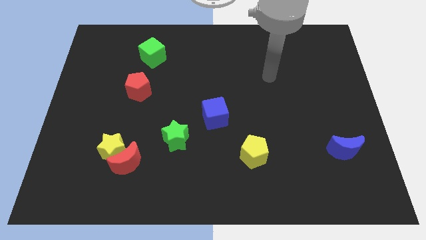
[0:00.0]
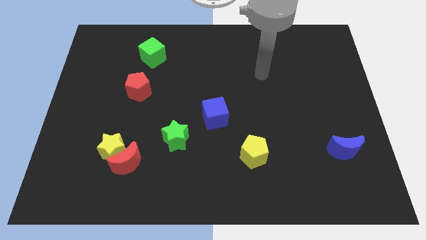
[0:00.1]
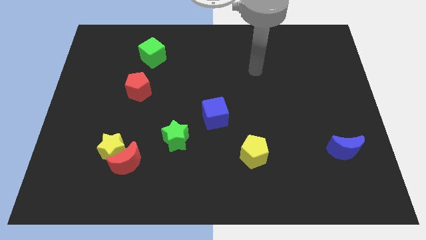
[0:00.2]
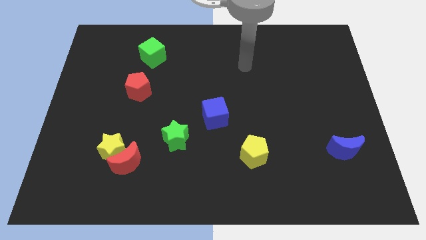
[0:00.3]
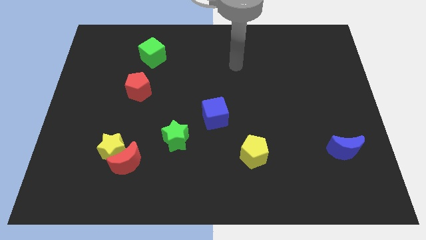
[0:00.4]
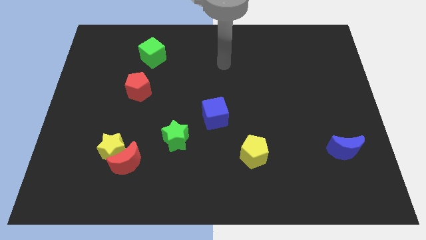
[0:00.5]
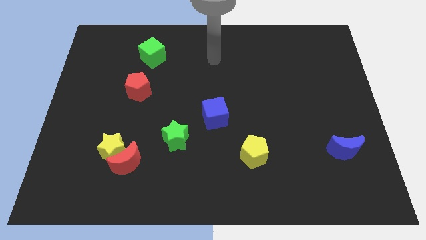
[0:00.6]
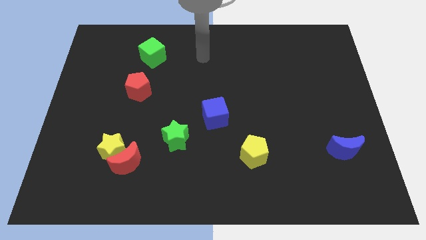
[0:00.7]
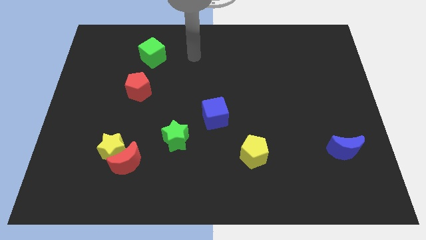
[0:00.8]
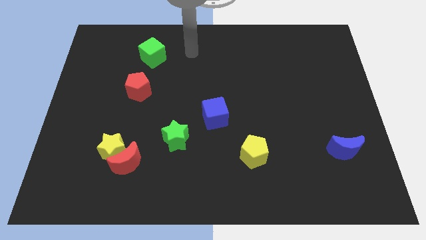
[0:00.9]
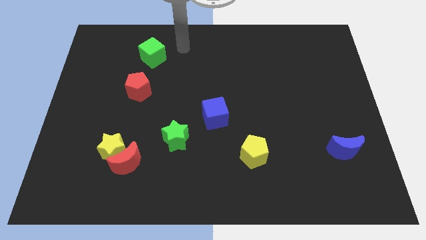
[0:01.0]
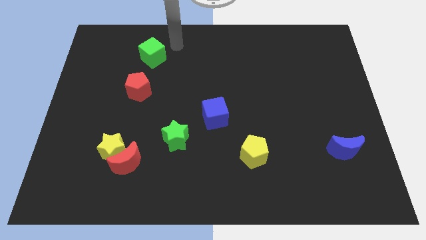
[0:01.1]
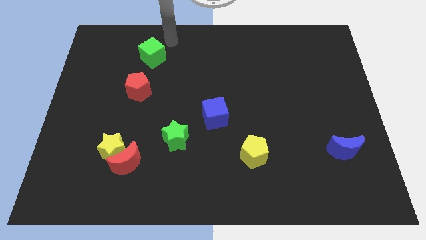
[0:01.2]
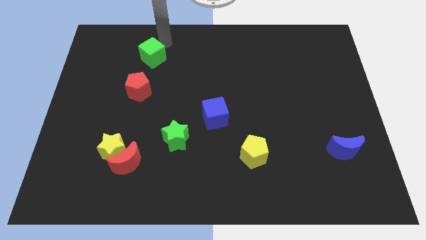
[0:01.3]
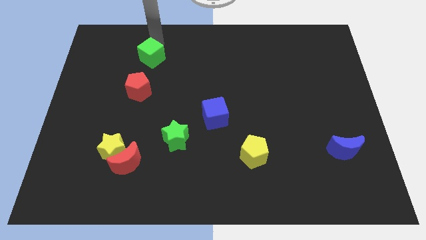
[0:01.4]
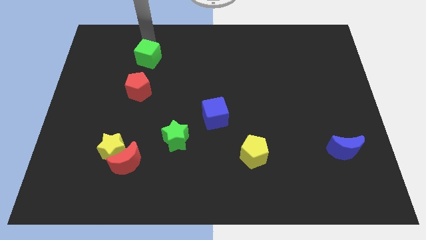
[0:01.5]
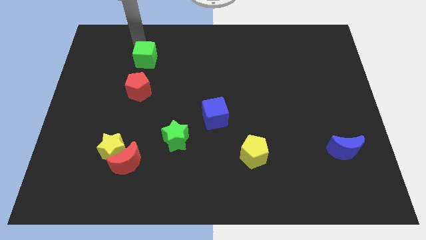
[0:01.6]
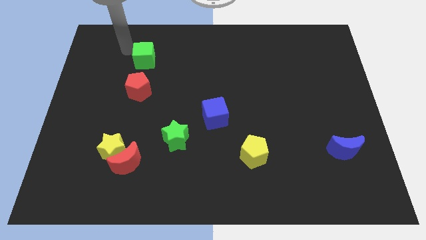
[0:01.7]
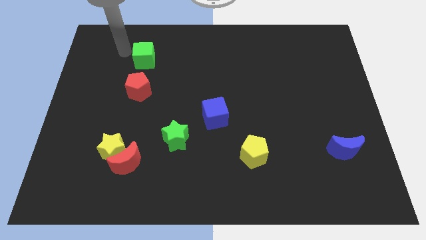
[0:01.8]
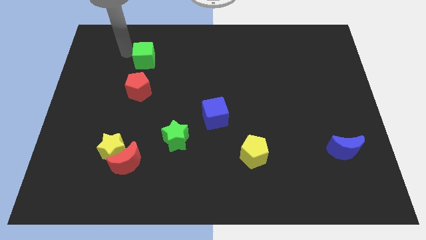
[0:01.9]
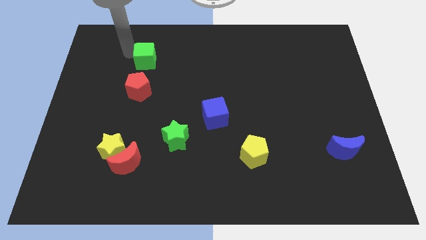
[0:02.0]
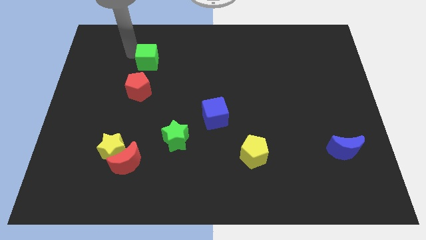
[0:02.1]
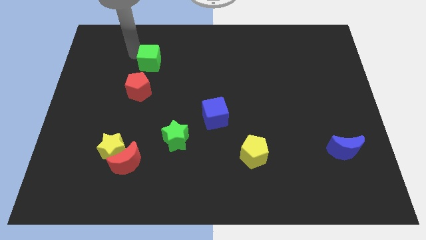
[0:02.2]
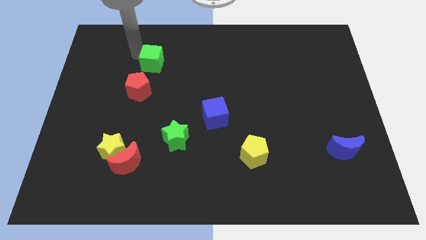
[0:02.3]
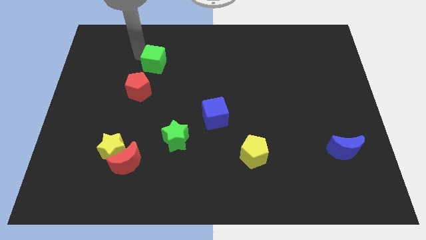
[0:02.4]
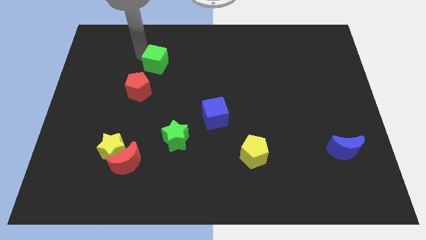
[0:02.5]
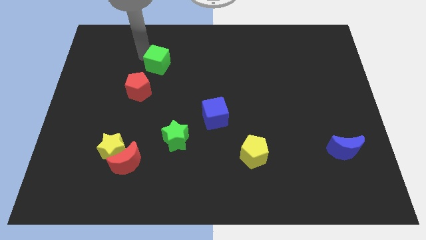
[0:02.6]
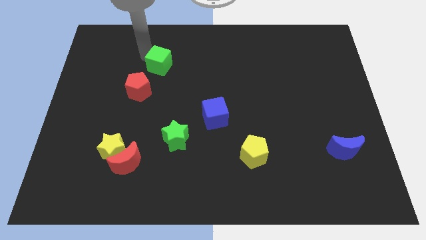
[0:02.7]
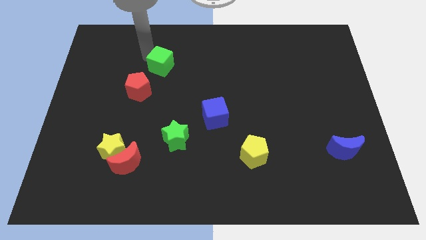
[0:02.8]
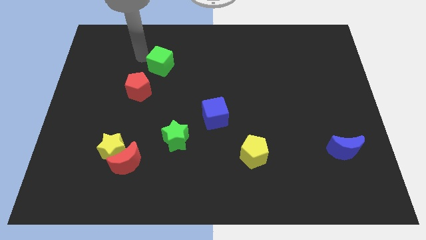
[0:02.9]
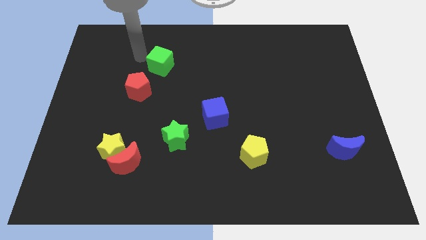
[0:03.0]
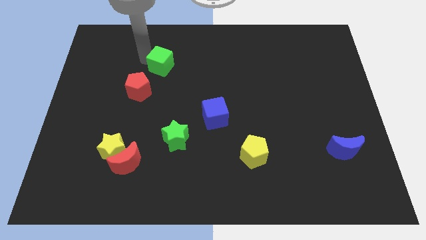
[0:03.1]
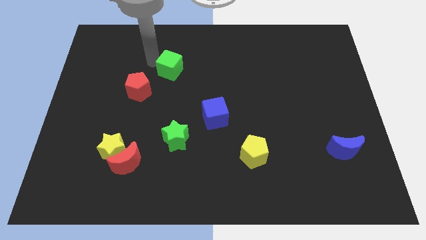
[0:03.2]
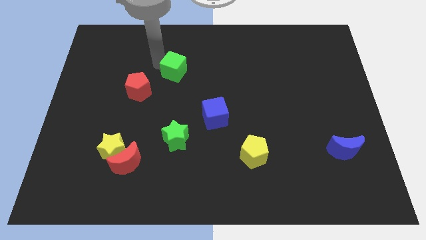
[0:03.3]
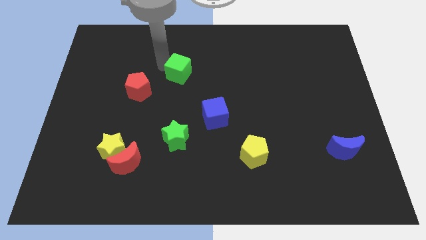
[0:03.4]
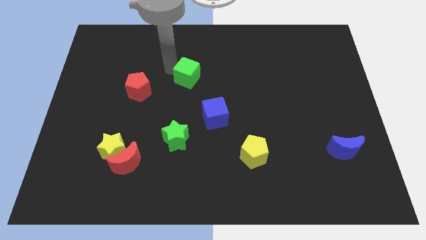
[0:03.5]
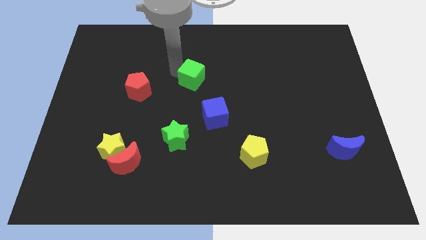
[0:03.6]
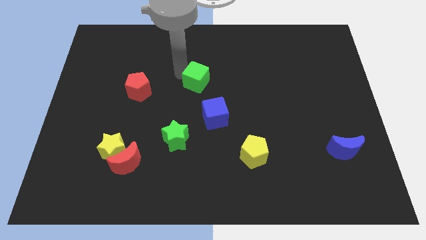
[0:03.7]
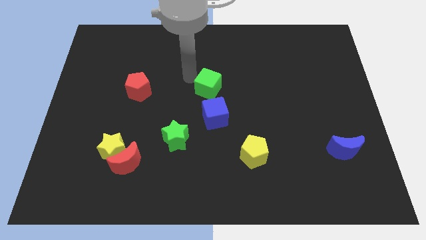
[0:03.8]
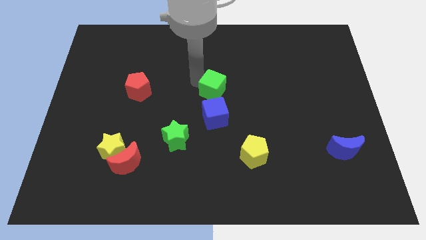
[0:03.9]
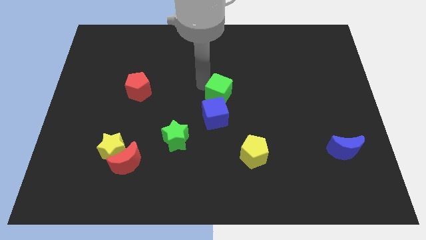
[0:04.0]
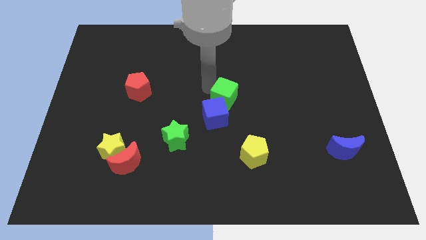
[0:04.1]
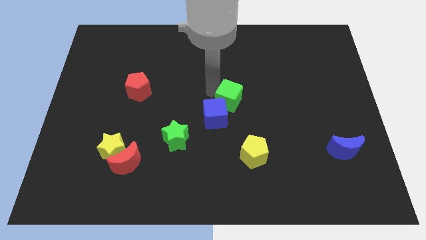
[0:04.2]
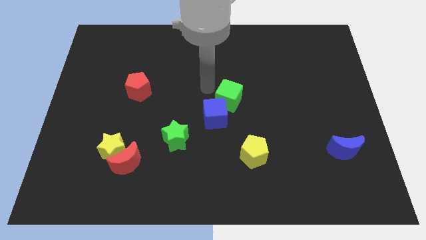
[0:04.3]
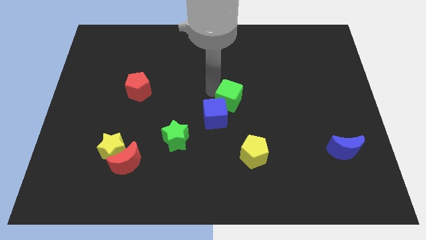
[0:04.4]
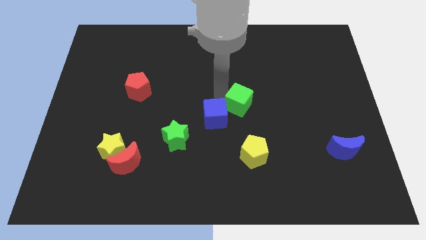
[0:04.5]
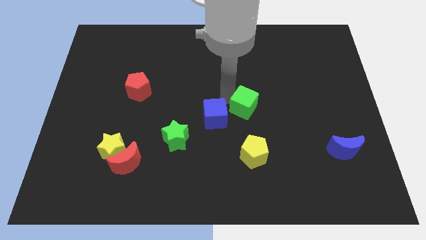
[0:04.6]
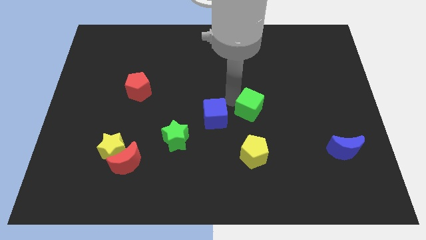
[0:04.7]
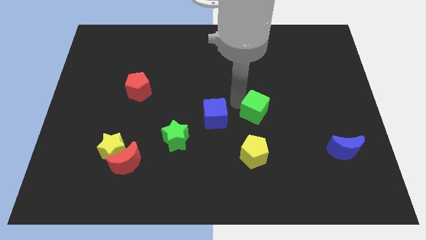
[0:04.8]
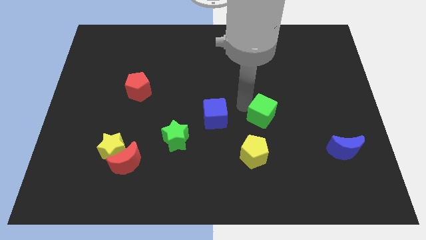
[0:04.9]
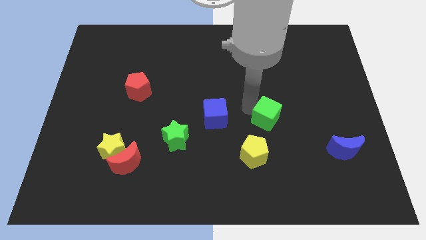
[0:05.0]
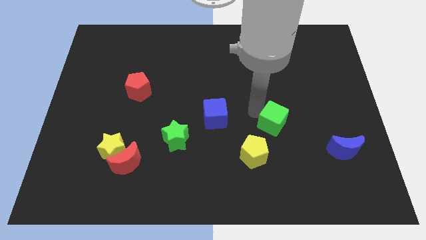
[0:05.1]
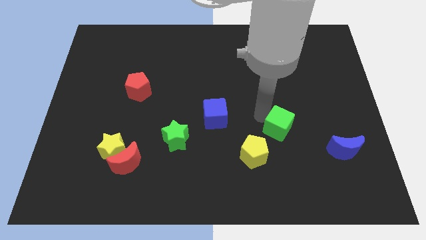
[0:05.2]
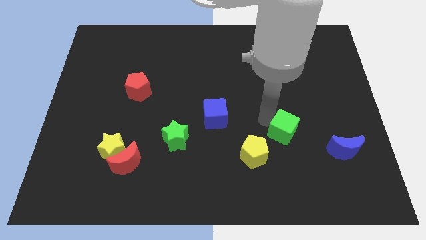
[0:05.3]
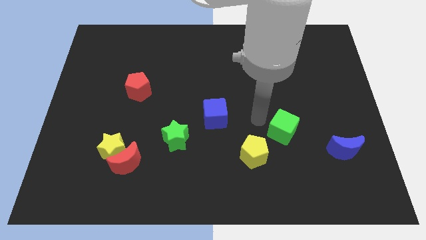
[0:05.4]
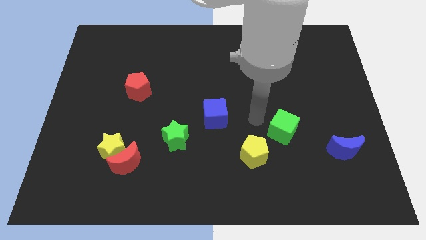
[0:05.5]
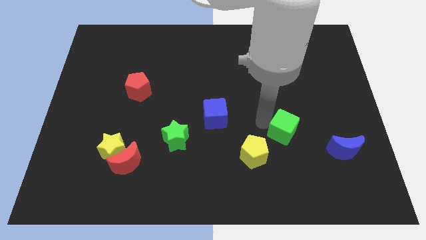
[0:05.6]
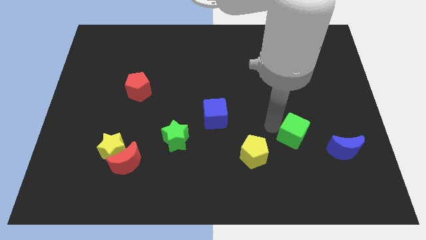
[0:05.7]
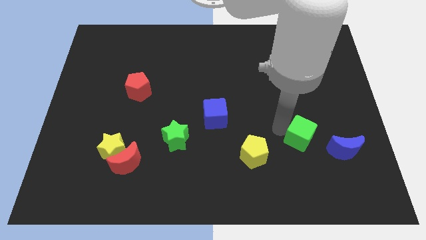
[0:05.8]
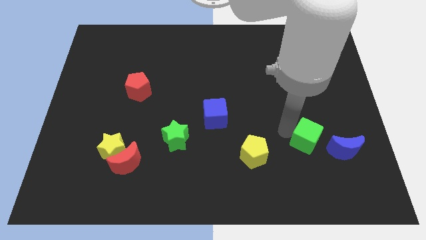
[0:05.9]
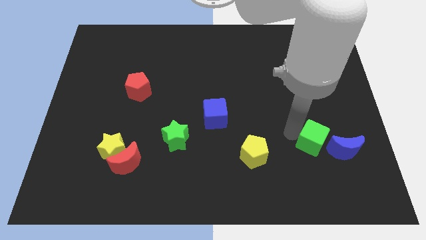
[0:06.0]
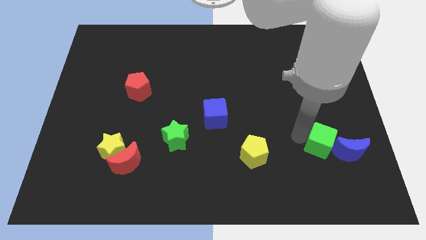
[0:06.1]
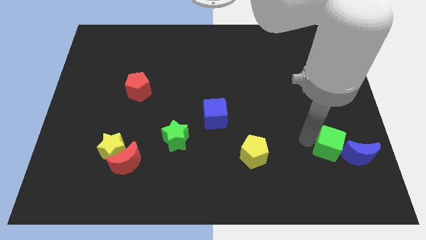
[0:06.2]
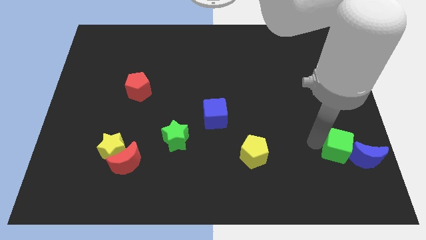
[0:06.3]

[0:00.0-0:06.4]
slide the green cube close to the blue moon

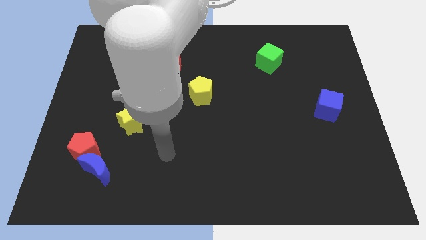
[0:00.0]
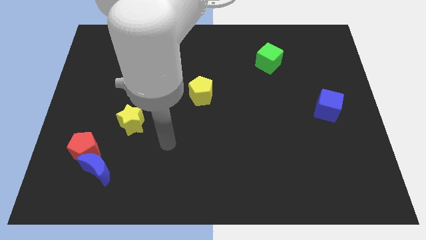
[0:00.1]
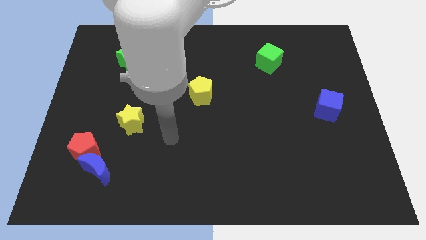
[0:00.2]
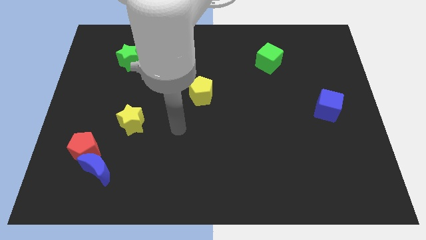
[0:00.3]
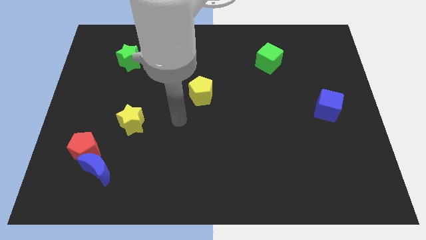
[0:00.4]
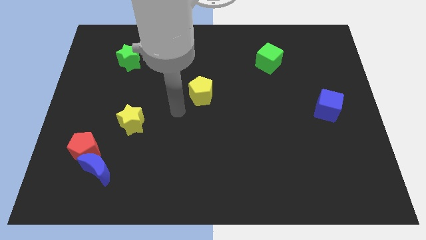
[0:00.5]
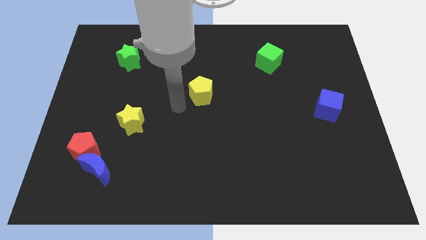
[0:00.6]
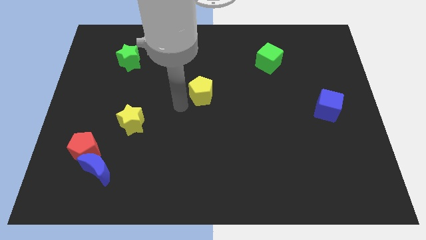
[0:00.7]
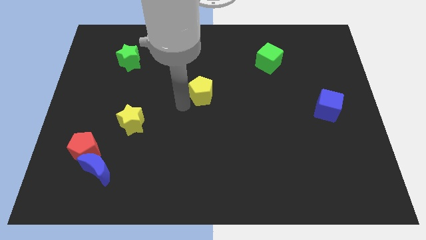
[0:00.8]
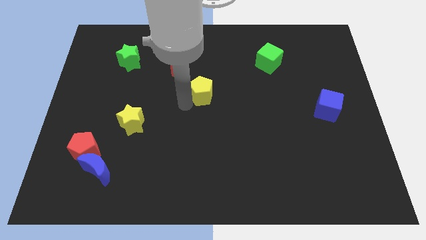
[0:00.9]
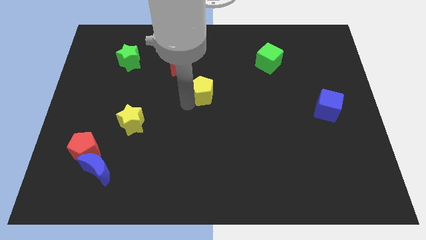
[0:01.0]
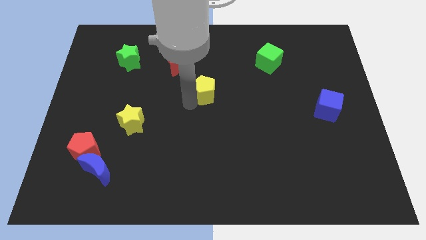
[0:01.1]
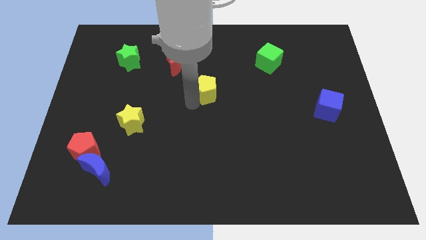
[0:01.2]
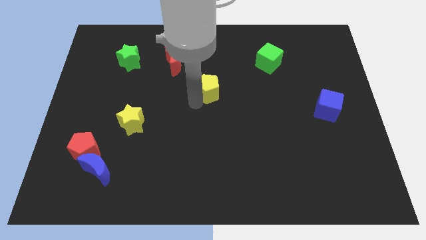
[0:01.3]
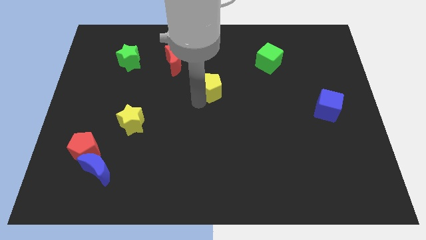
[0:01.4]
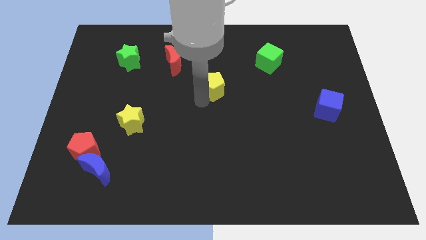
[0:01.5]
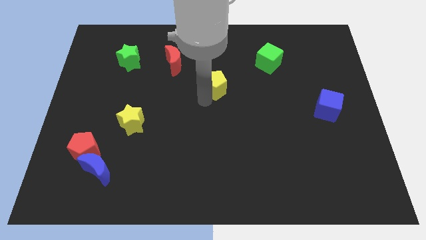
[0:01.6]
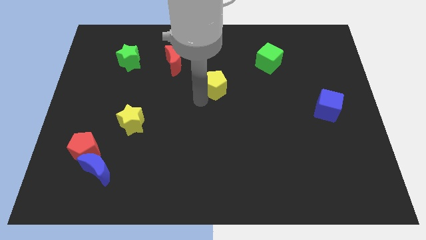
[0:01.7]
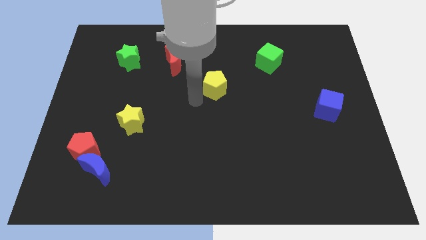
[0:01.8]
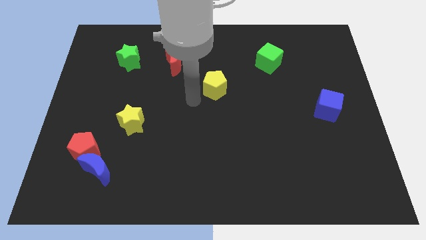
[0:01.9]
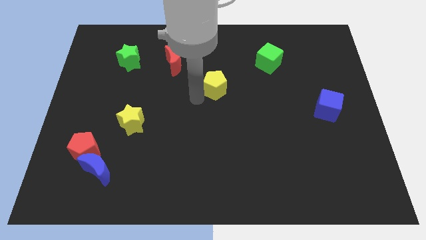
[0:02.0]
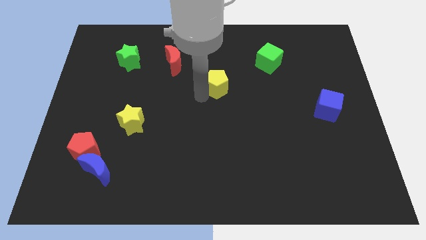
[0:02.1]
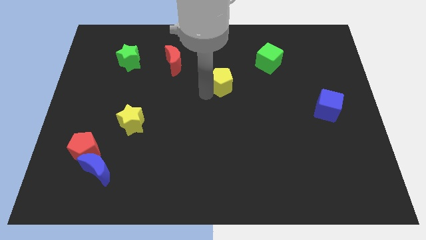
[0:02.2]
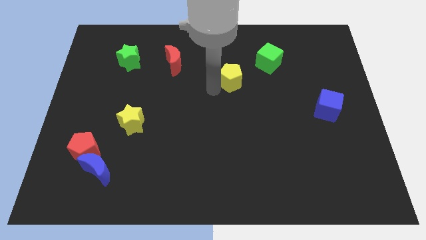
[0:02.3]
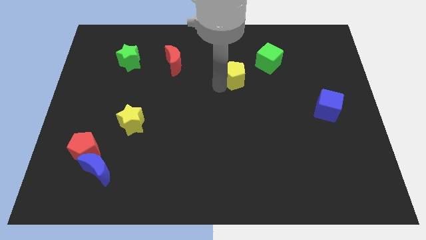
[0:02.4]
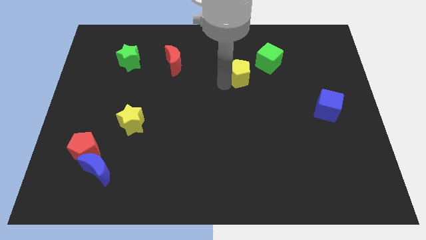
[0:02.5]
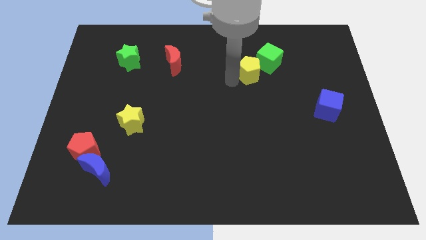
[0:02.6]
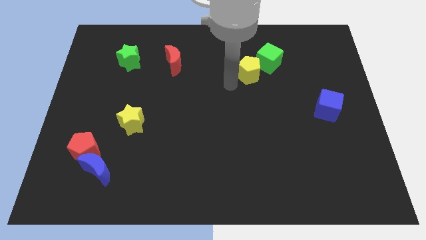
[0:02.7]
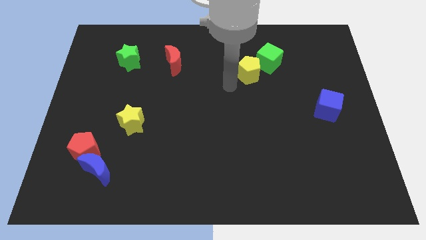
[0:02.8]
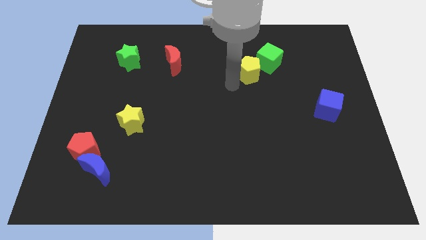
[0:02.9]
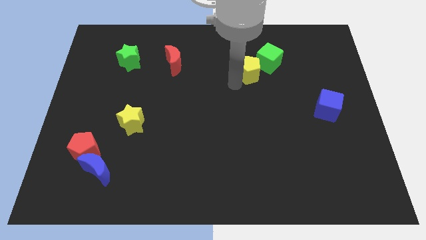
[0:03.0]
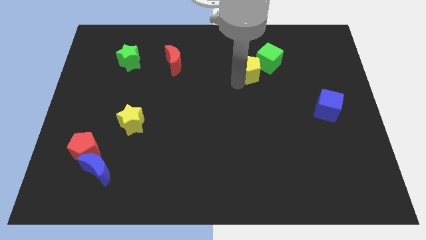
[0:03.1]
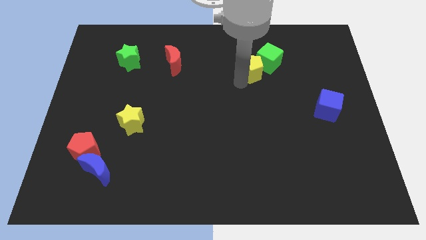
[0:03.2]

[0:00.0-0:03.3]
put the yellow pentagon towards the green cube
